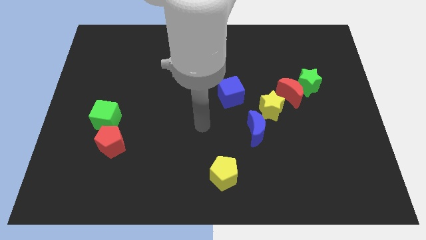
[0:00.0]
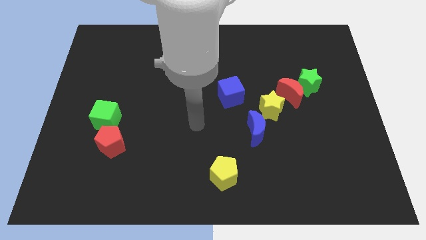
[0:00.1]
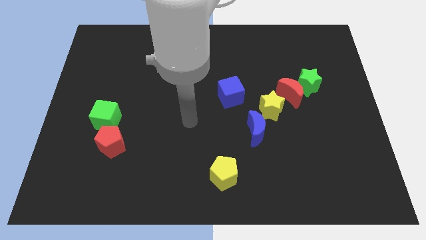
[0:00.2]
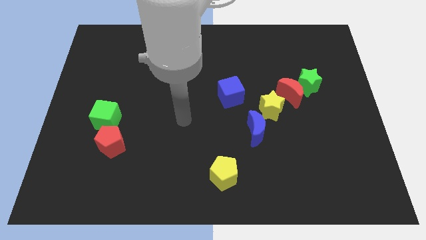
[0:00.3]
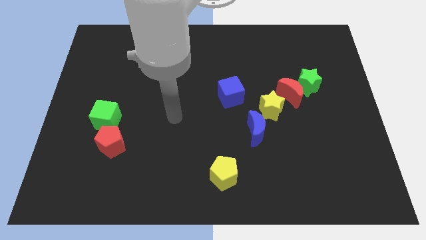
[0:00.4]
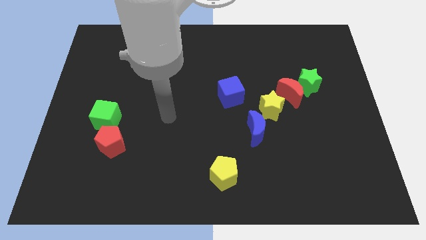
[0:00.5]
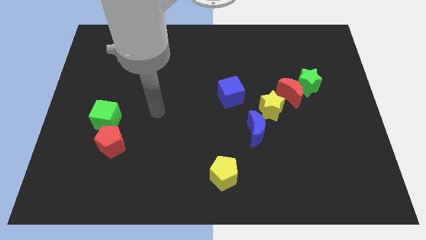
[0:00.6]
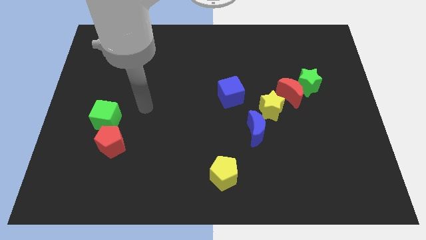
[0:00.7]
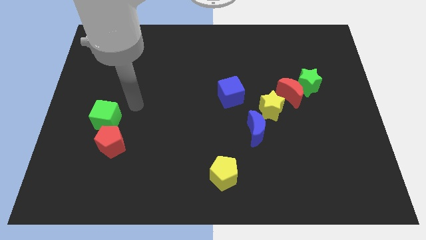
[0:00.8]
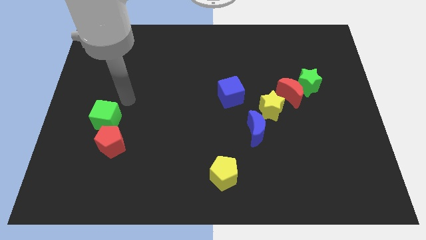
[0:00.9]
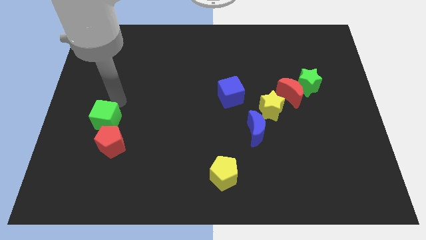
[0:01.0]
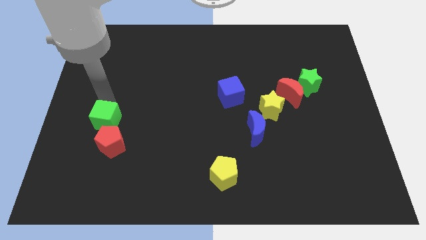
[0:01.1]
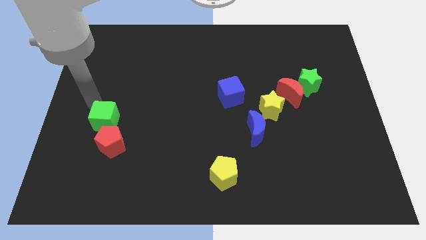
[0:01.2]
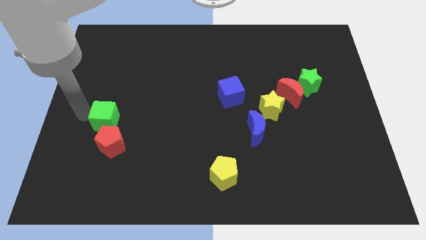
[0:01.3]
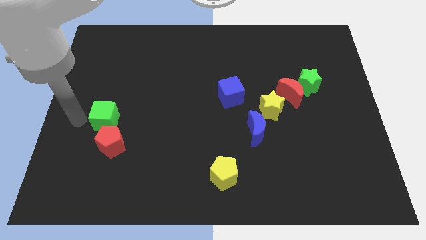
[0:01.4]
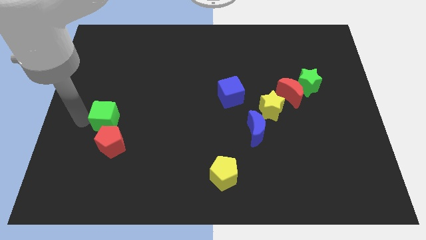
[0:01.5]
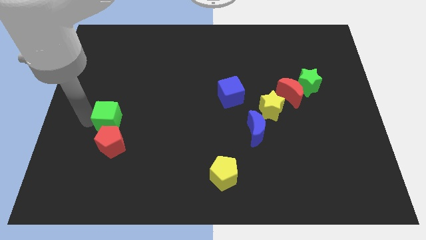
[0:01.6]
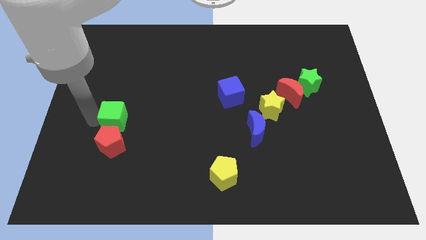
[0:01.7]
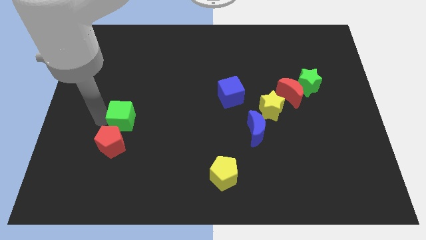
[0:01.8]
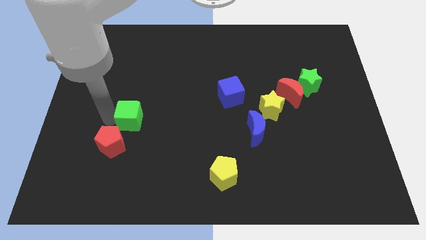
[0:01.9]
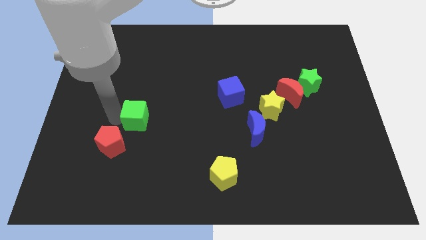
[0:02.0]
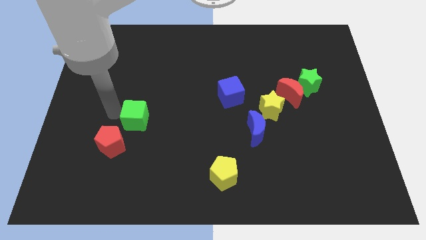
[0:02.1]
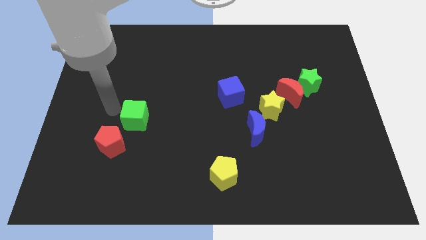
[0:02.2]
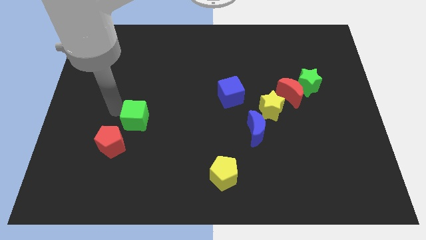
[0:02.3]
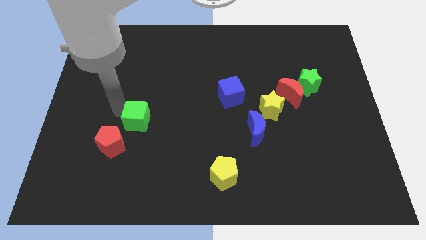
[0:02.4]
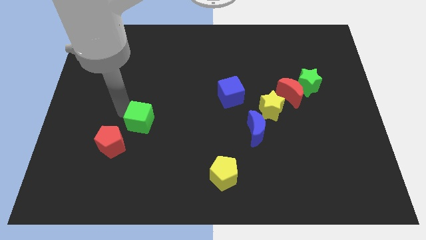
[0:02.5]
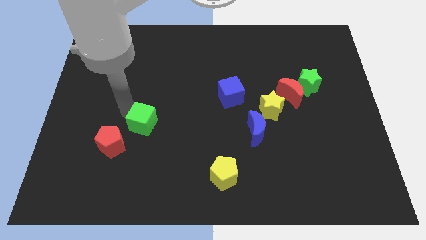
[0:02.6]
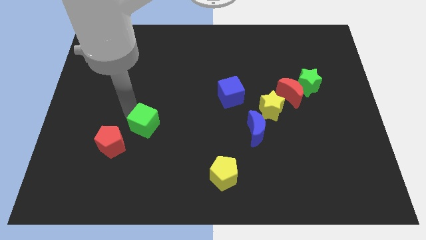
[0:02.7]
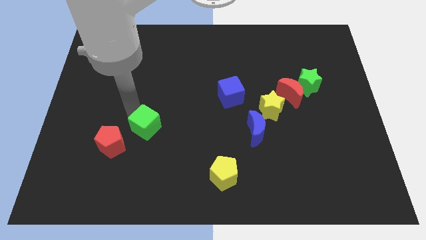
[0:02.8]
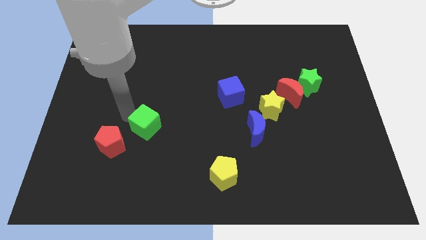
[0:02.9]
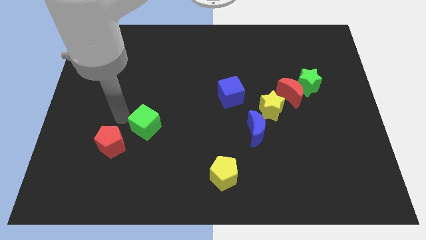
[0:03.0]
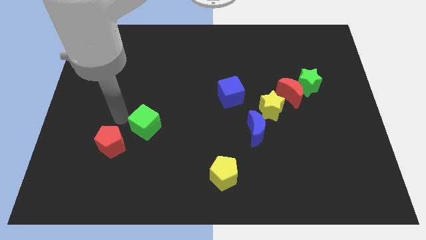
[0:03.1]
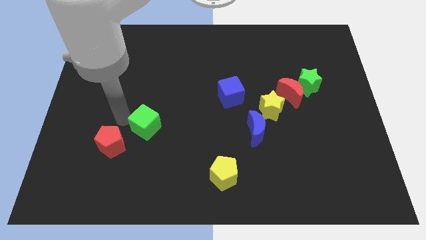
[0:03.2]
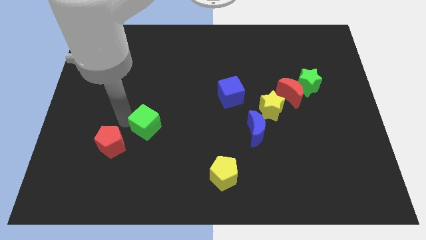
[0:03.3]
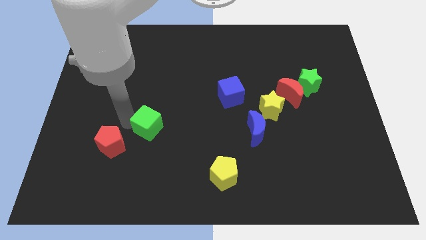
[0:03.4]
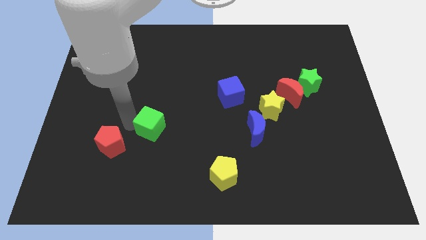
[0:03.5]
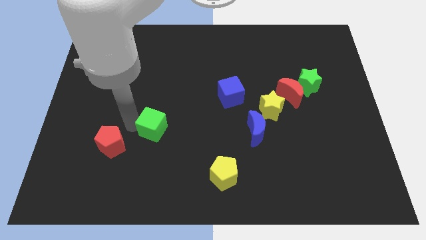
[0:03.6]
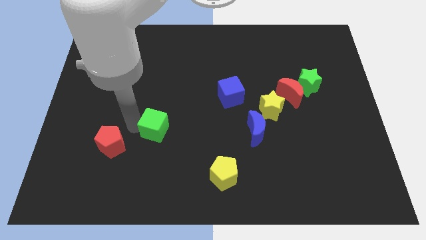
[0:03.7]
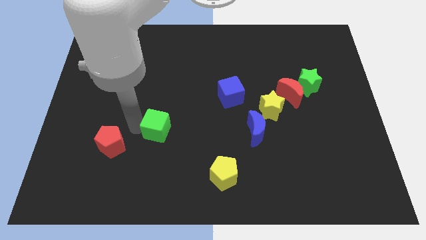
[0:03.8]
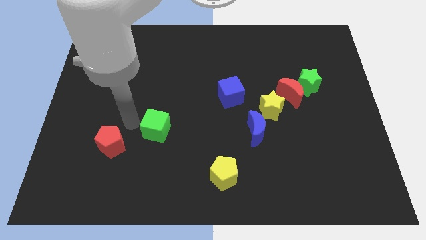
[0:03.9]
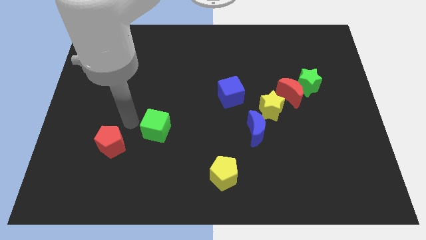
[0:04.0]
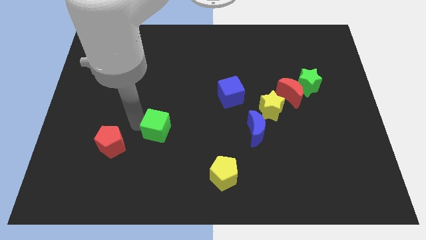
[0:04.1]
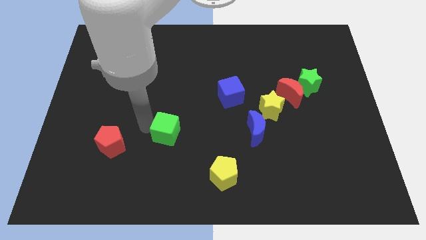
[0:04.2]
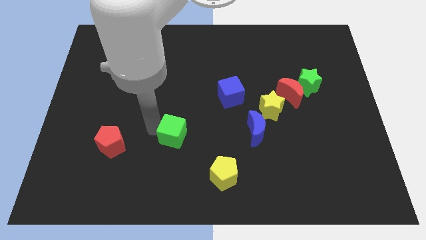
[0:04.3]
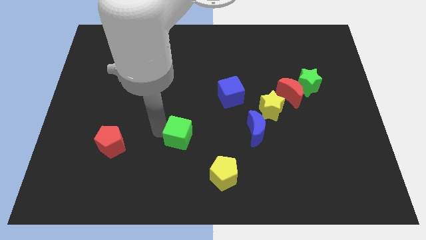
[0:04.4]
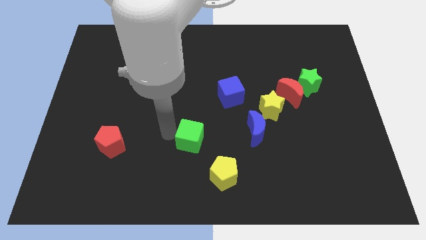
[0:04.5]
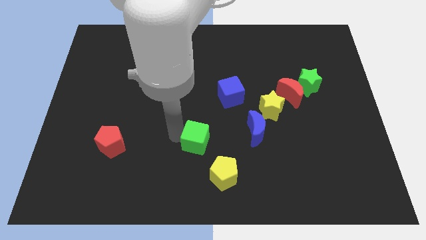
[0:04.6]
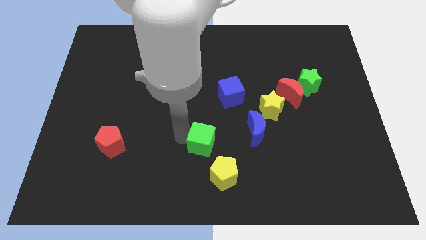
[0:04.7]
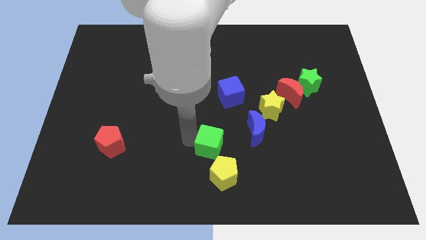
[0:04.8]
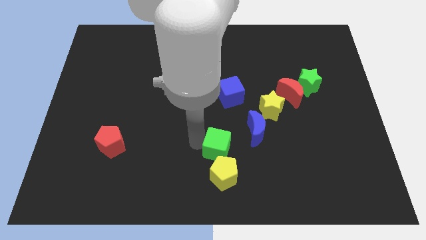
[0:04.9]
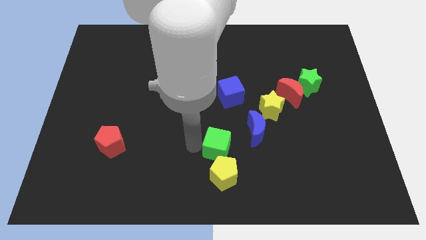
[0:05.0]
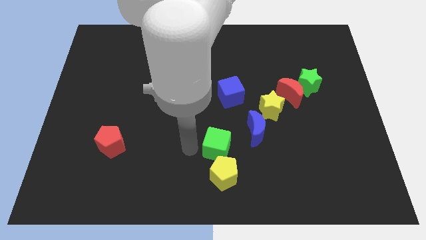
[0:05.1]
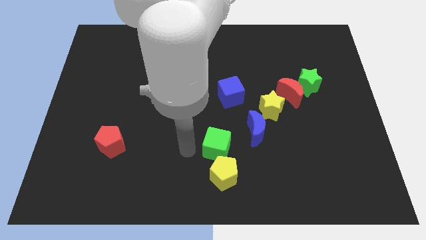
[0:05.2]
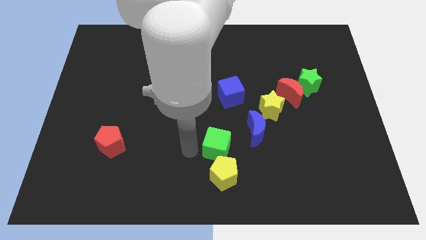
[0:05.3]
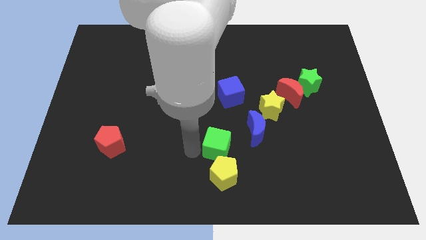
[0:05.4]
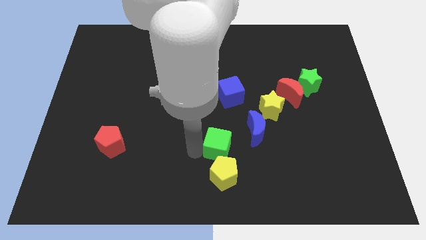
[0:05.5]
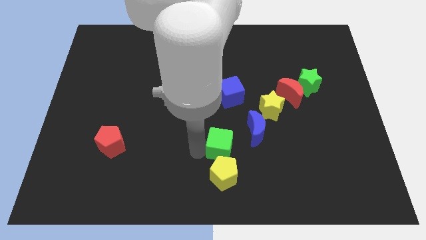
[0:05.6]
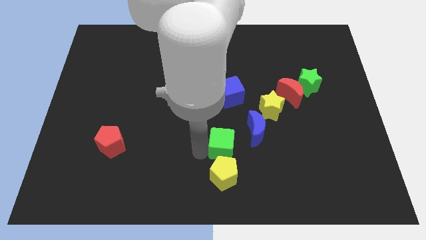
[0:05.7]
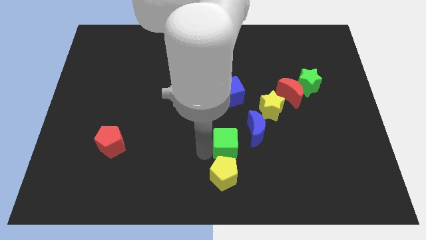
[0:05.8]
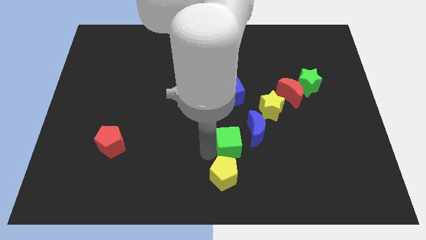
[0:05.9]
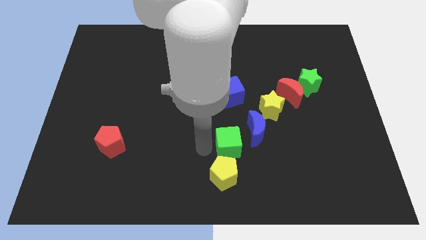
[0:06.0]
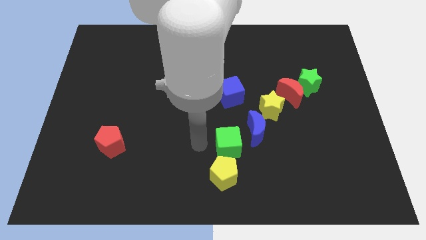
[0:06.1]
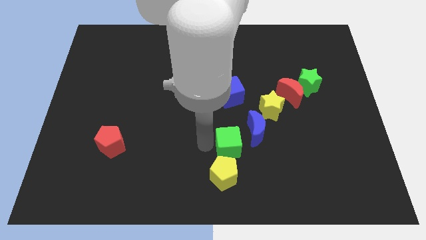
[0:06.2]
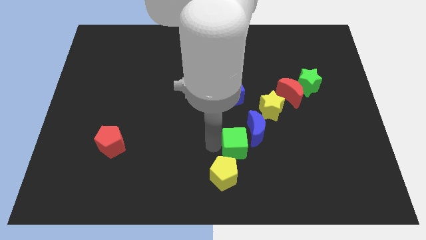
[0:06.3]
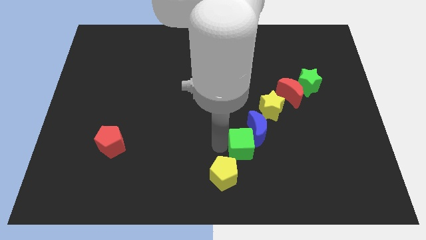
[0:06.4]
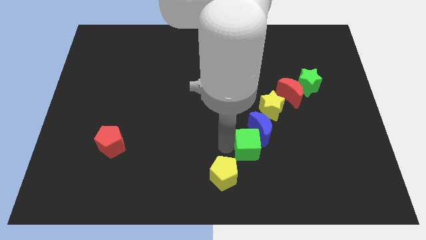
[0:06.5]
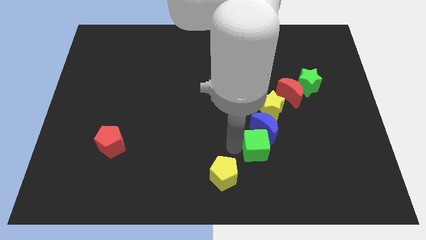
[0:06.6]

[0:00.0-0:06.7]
push the green cube to the bottom side of the yellow star

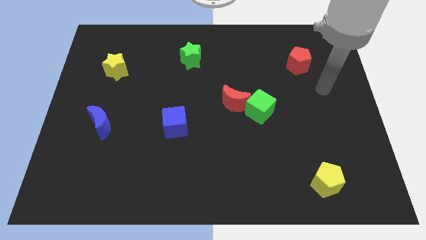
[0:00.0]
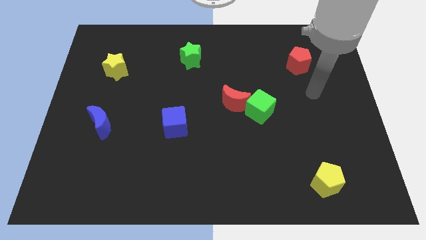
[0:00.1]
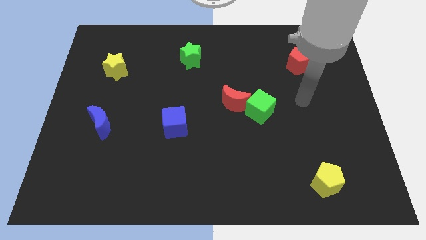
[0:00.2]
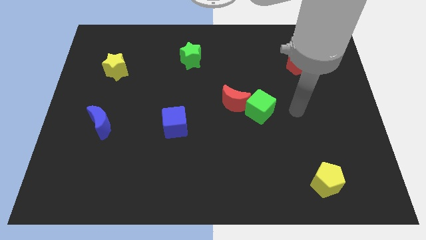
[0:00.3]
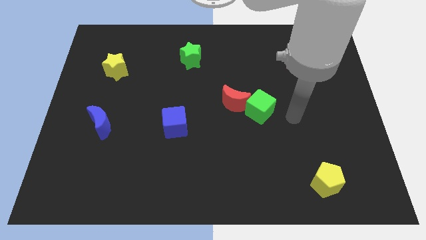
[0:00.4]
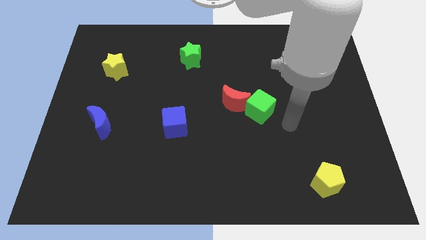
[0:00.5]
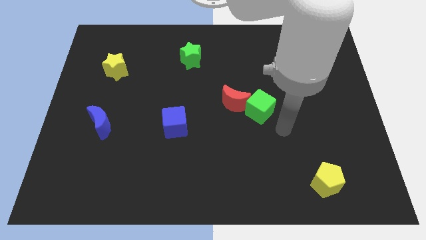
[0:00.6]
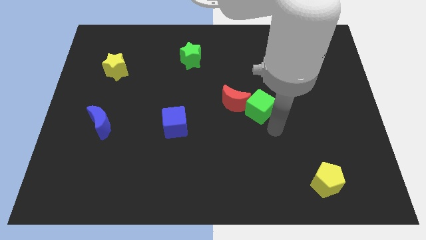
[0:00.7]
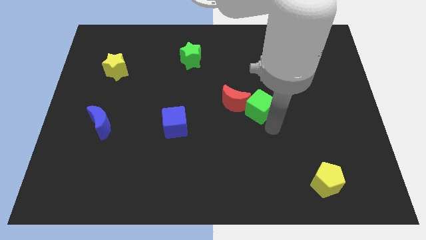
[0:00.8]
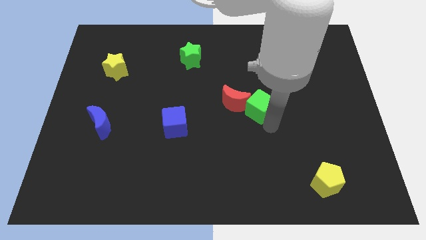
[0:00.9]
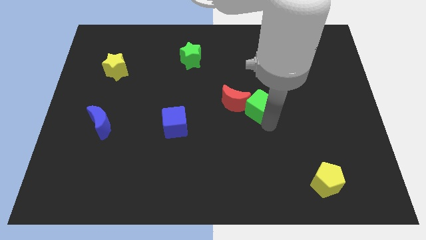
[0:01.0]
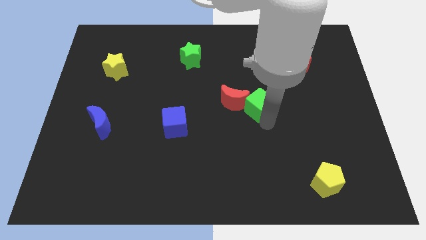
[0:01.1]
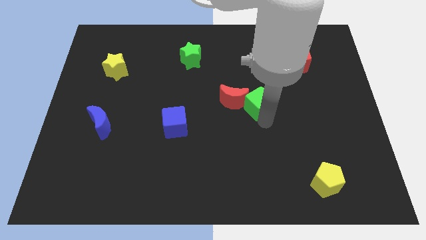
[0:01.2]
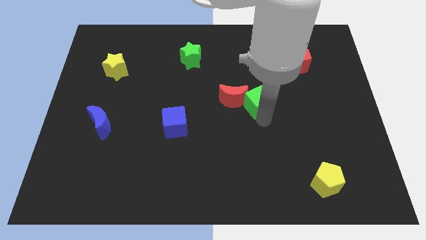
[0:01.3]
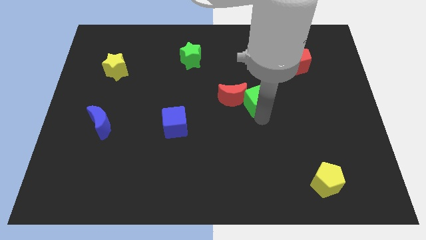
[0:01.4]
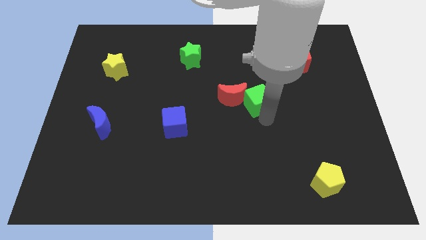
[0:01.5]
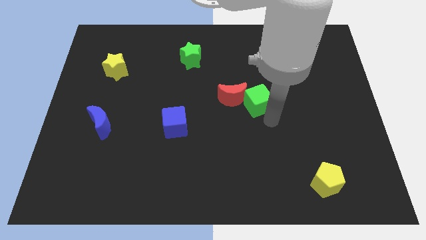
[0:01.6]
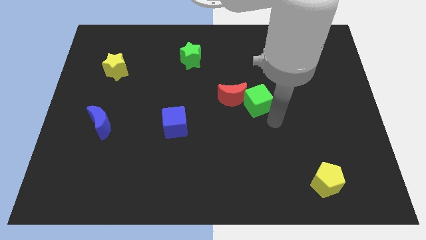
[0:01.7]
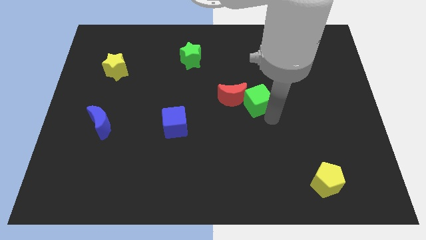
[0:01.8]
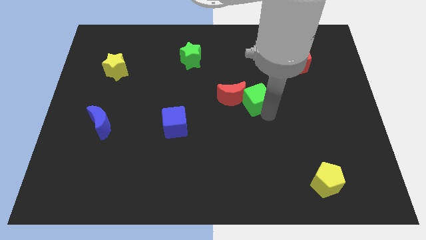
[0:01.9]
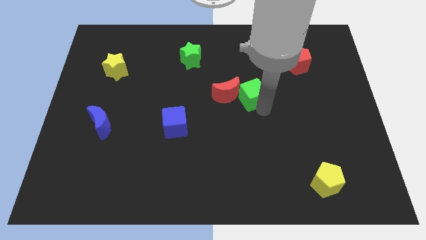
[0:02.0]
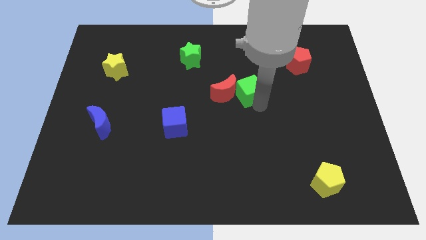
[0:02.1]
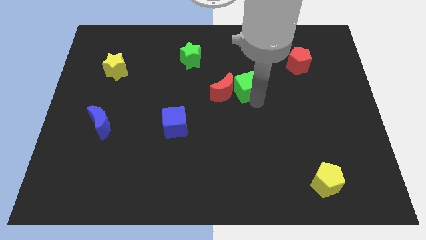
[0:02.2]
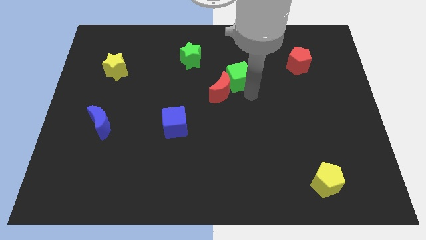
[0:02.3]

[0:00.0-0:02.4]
move the green cube to the top side of the red moon
